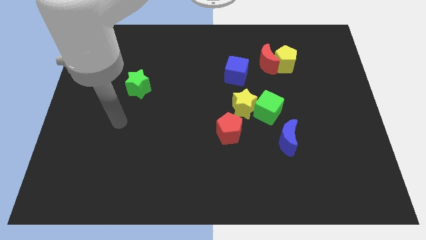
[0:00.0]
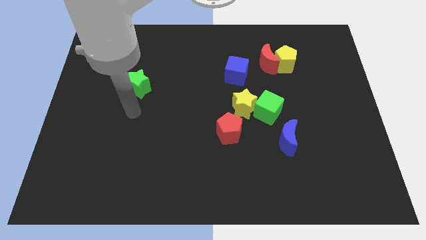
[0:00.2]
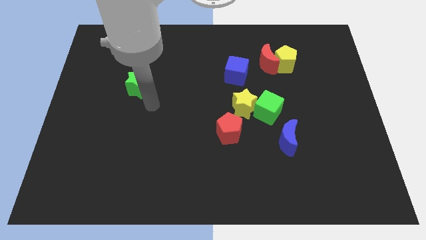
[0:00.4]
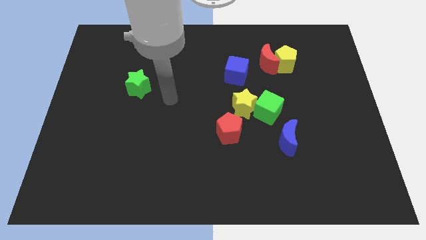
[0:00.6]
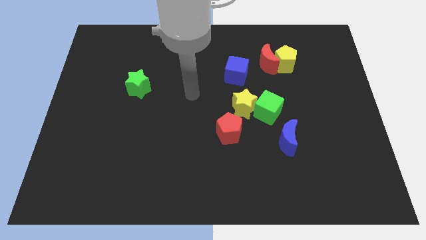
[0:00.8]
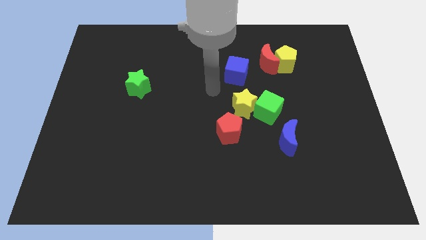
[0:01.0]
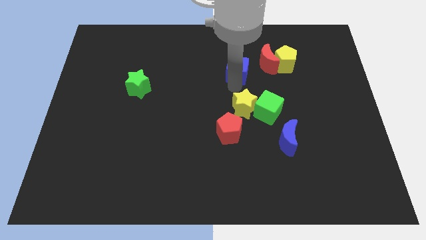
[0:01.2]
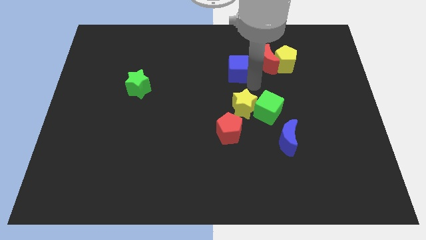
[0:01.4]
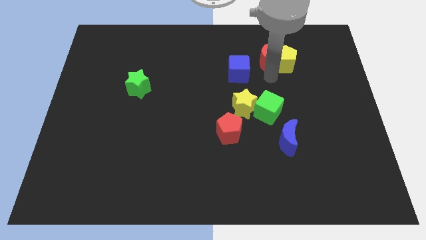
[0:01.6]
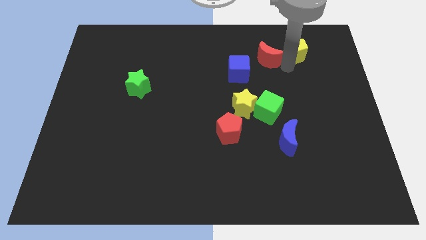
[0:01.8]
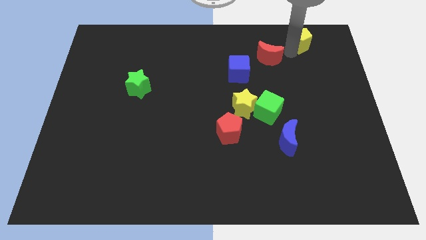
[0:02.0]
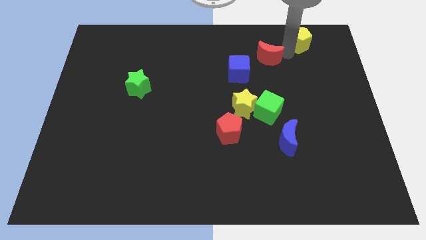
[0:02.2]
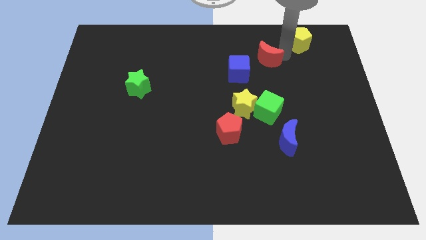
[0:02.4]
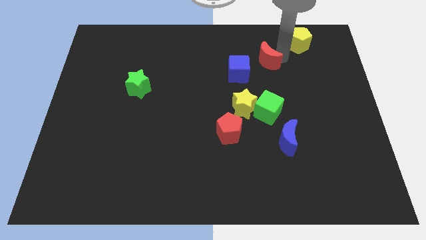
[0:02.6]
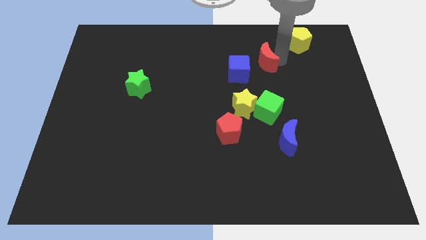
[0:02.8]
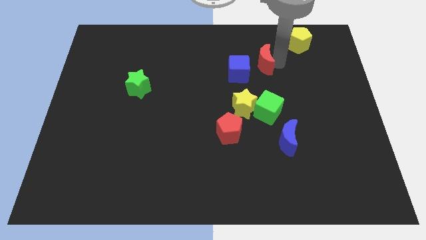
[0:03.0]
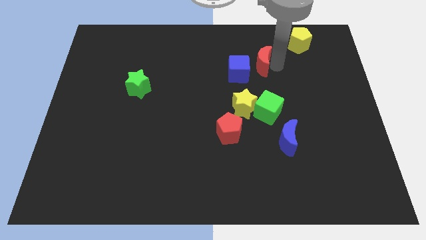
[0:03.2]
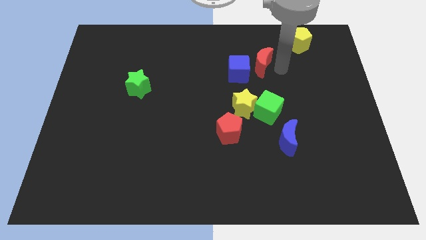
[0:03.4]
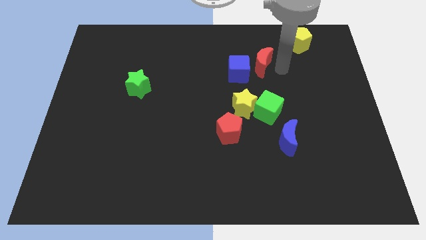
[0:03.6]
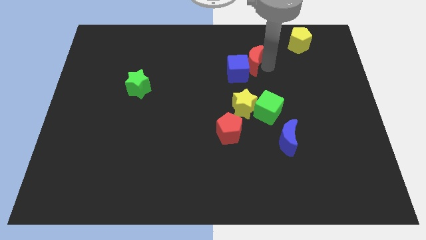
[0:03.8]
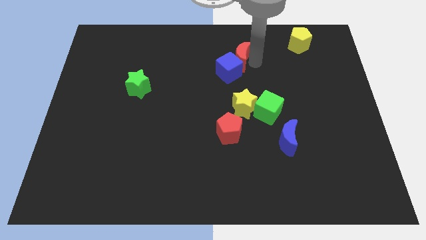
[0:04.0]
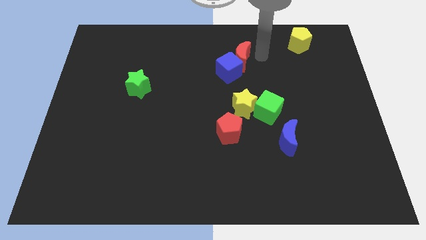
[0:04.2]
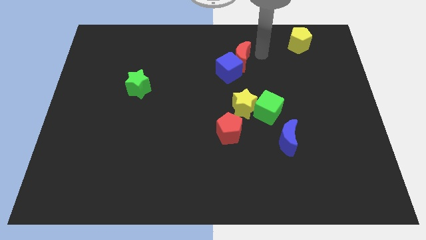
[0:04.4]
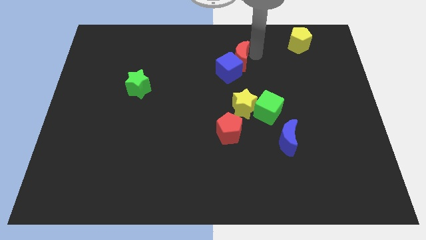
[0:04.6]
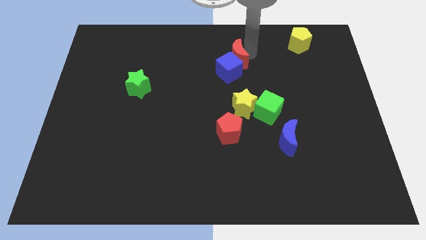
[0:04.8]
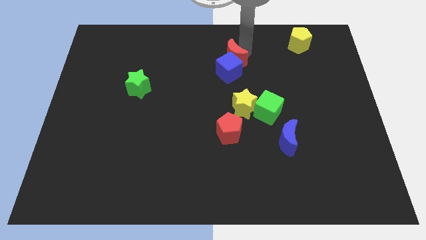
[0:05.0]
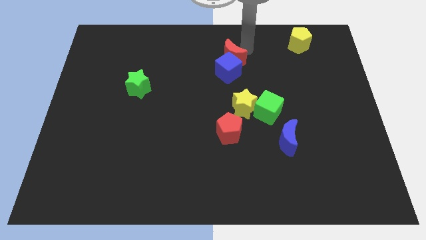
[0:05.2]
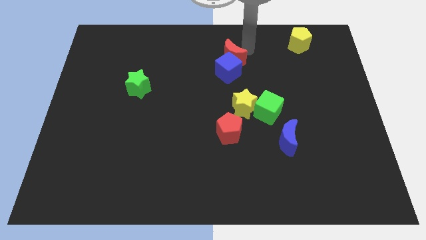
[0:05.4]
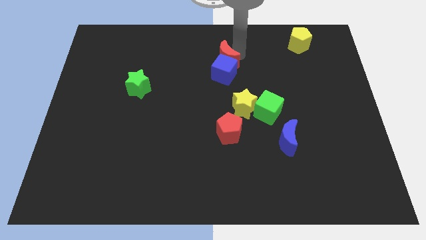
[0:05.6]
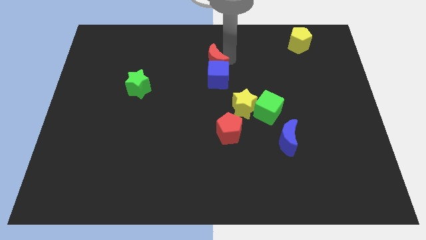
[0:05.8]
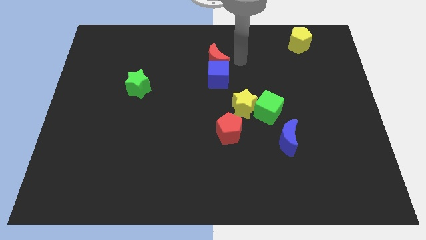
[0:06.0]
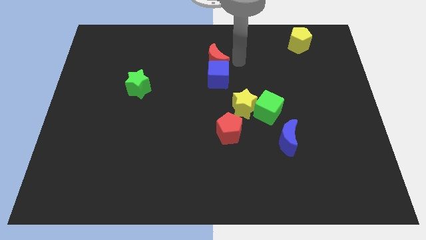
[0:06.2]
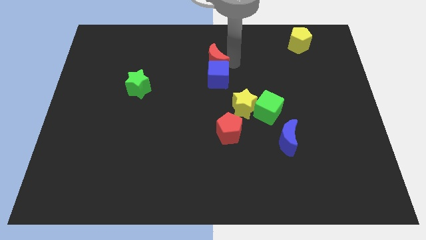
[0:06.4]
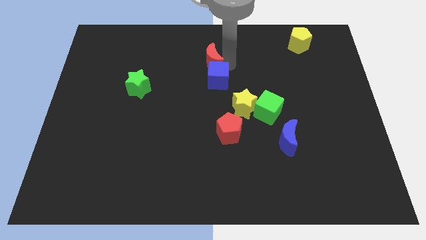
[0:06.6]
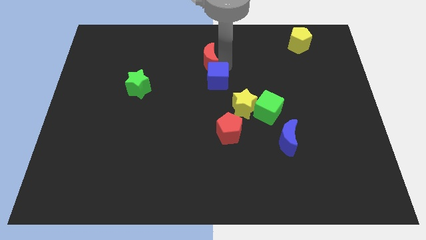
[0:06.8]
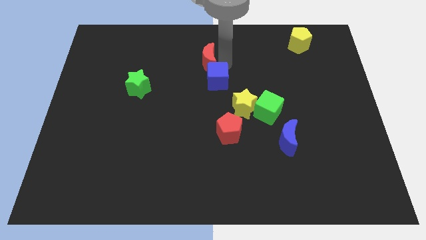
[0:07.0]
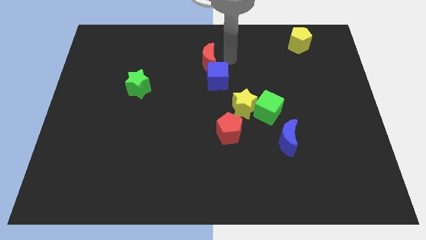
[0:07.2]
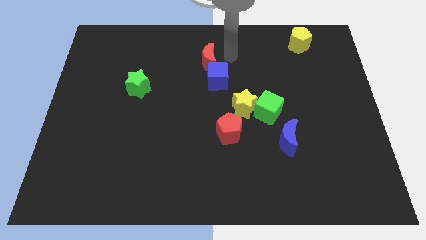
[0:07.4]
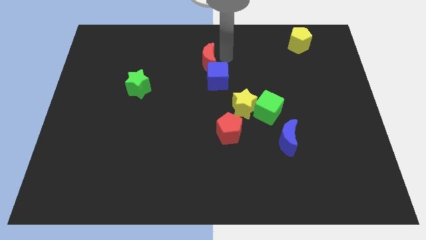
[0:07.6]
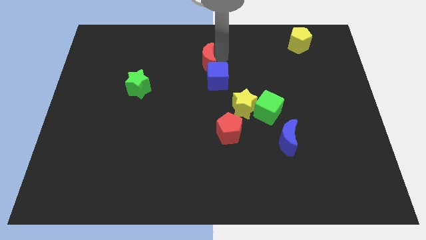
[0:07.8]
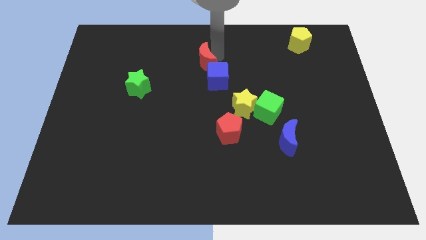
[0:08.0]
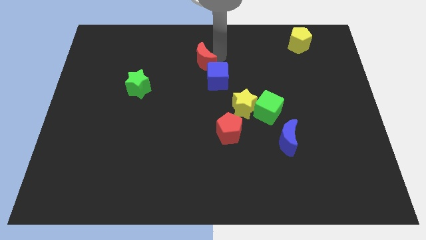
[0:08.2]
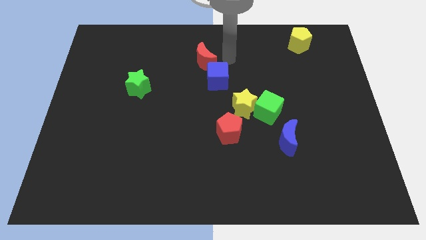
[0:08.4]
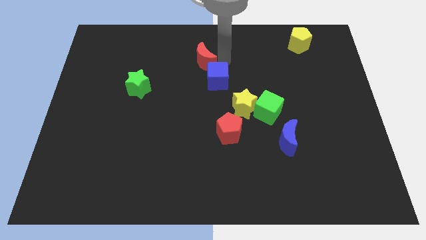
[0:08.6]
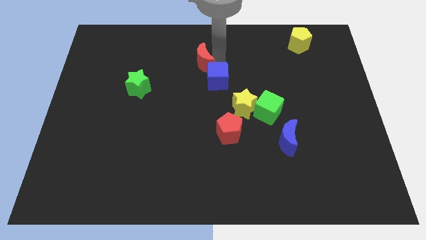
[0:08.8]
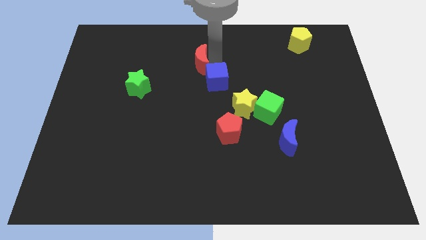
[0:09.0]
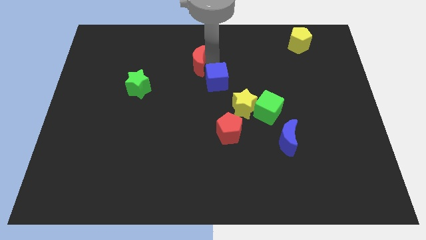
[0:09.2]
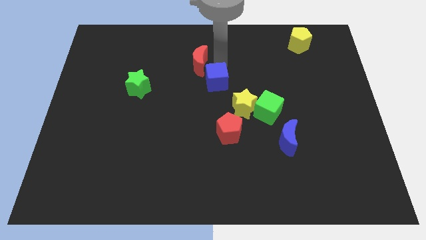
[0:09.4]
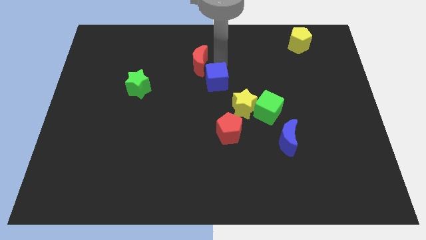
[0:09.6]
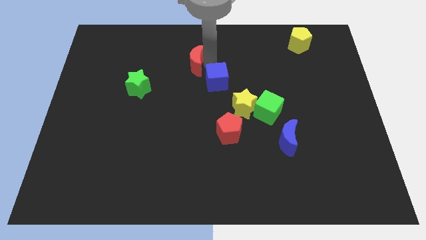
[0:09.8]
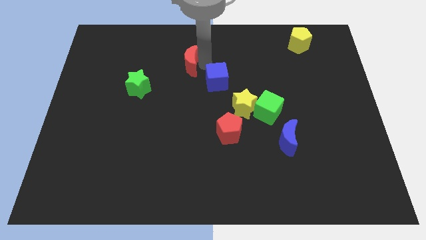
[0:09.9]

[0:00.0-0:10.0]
push the red moon to the left

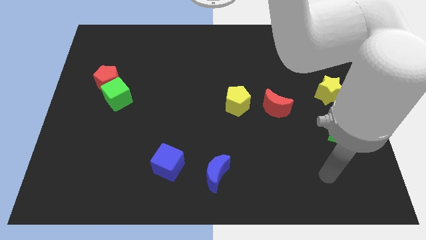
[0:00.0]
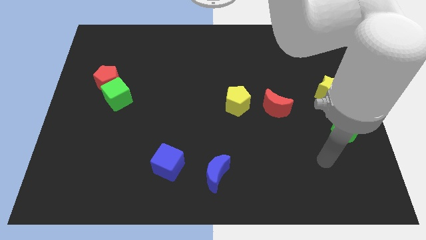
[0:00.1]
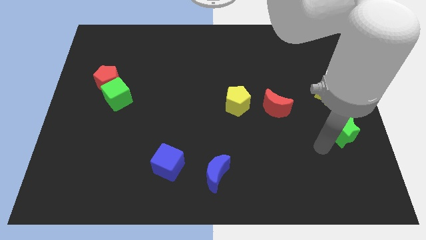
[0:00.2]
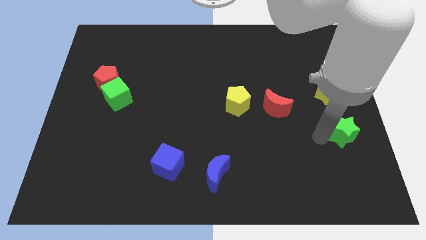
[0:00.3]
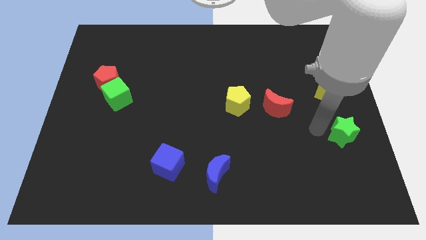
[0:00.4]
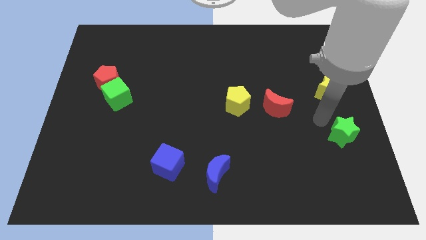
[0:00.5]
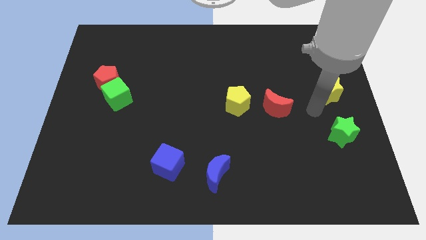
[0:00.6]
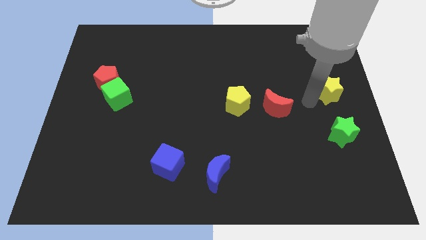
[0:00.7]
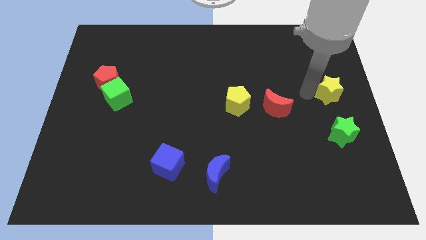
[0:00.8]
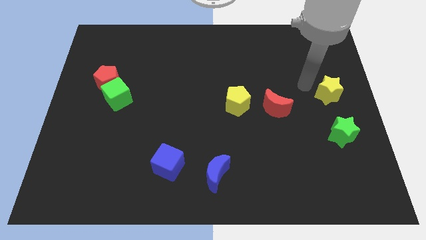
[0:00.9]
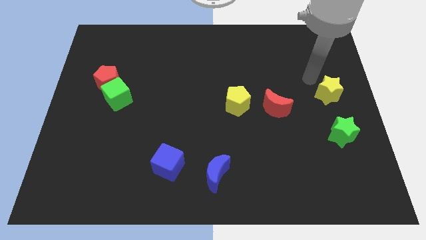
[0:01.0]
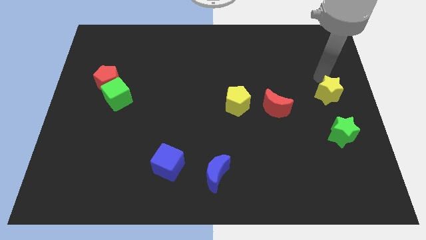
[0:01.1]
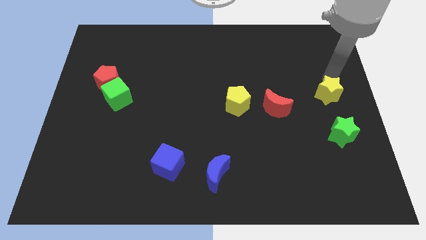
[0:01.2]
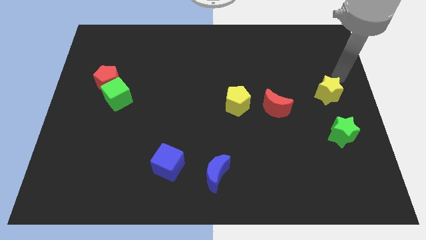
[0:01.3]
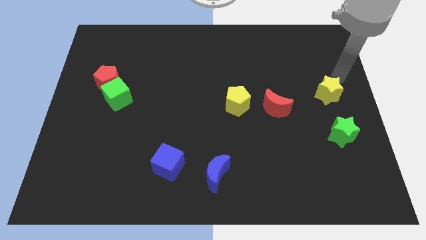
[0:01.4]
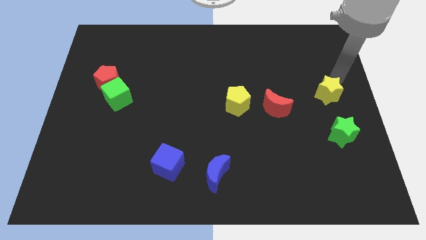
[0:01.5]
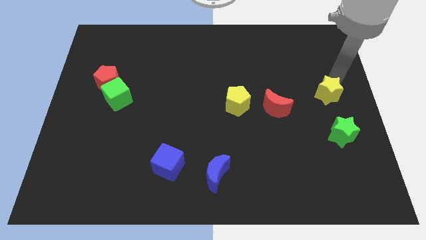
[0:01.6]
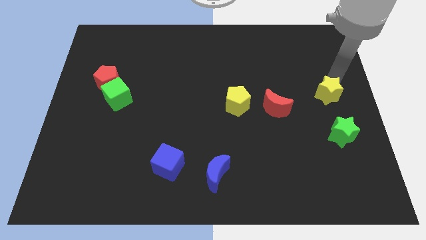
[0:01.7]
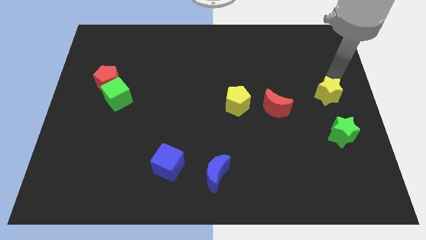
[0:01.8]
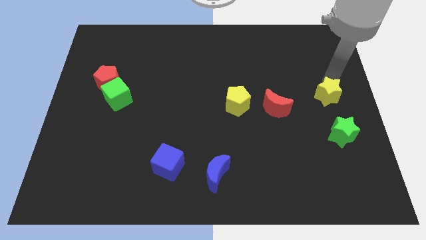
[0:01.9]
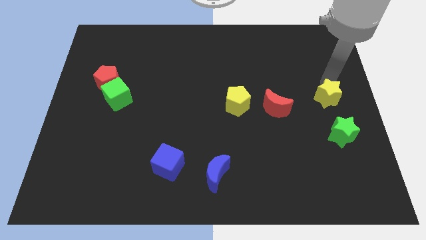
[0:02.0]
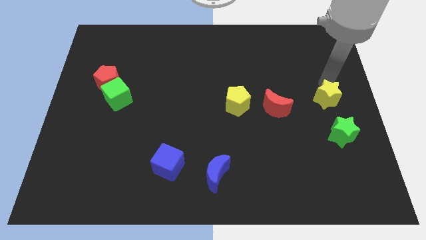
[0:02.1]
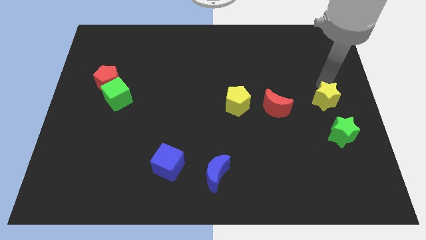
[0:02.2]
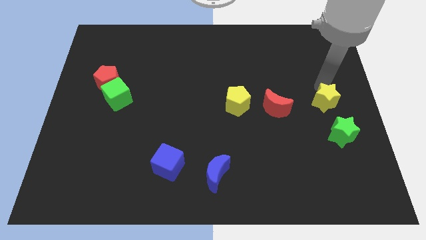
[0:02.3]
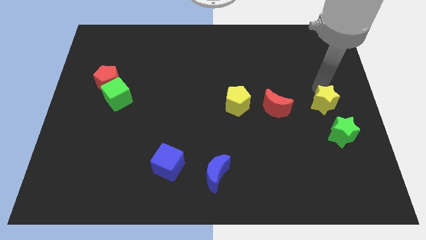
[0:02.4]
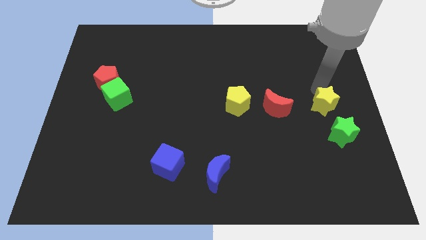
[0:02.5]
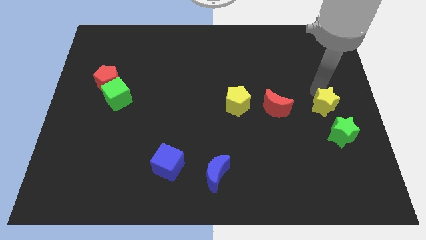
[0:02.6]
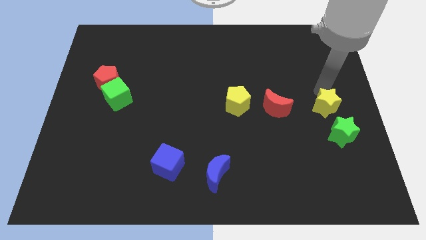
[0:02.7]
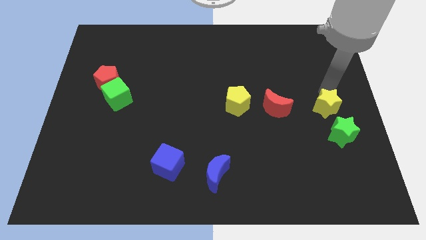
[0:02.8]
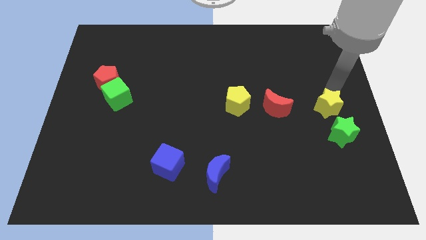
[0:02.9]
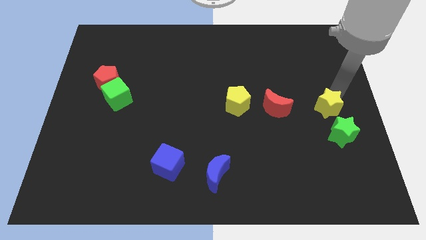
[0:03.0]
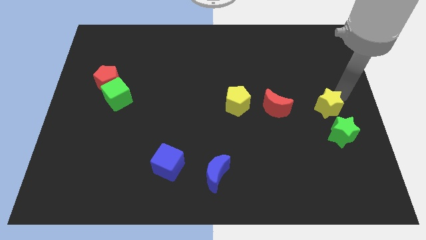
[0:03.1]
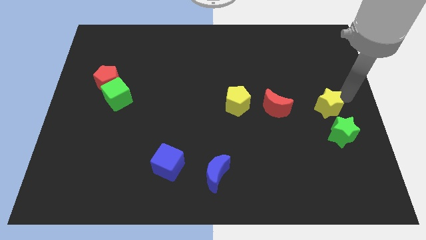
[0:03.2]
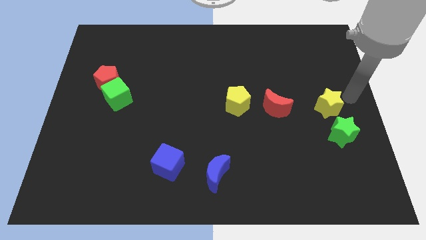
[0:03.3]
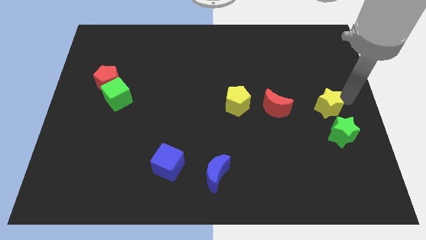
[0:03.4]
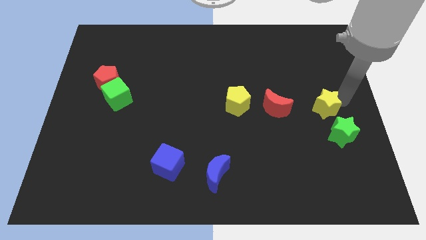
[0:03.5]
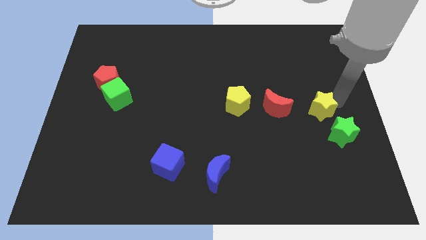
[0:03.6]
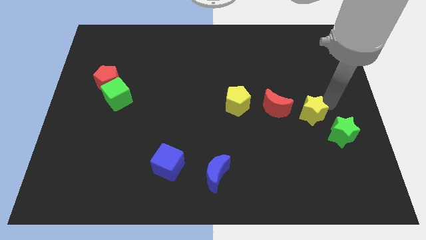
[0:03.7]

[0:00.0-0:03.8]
slide the yellow star a little bit down and left
